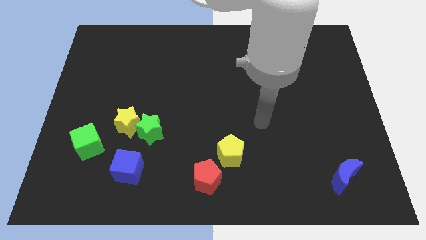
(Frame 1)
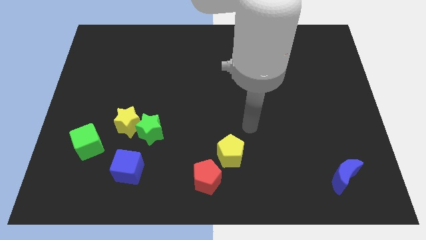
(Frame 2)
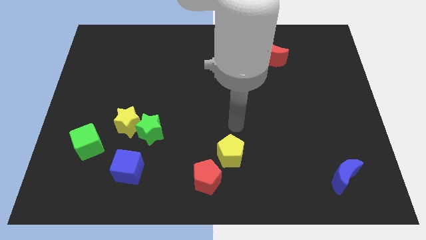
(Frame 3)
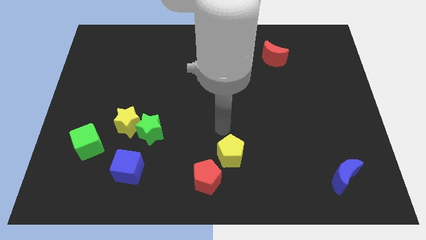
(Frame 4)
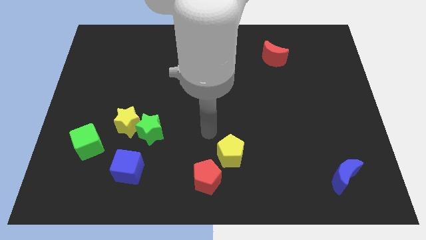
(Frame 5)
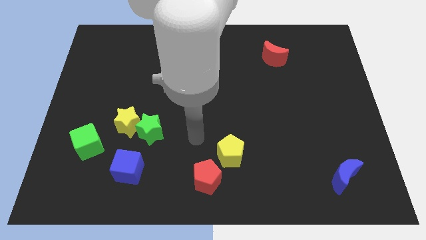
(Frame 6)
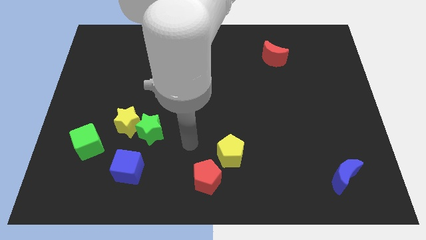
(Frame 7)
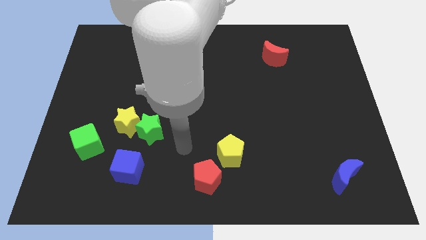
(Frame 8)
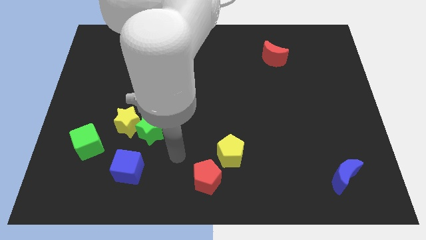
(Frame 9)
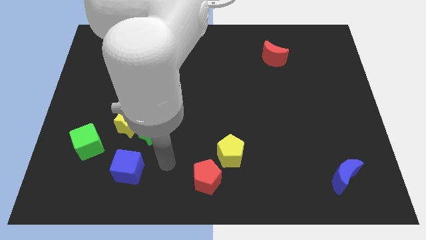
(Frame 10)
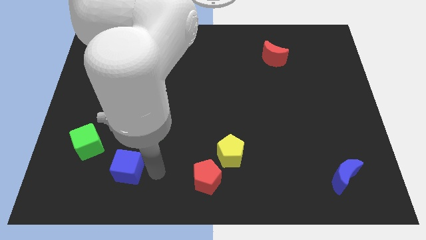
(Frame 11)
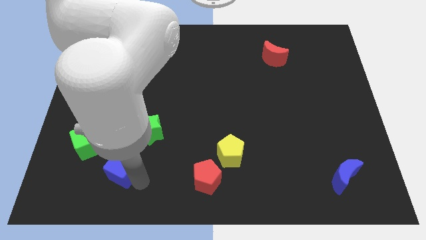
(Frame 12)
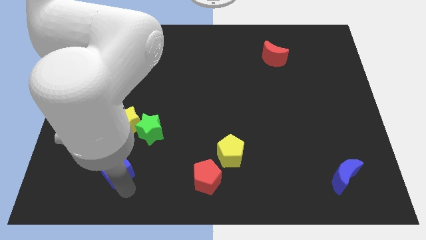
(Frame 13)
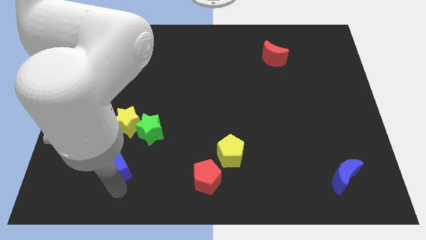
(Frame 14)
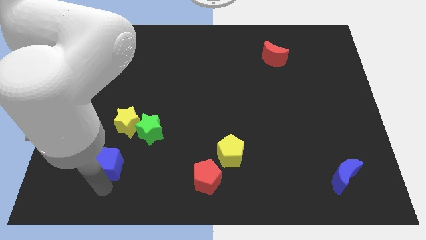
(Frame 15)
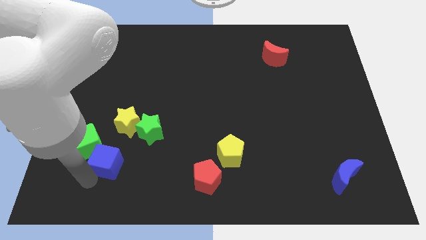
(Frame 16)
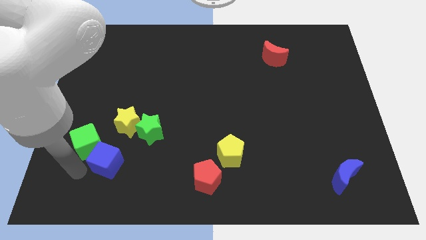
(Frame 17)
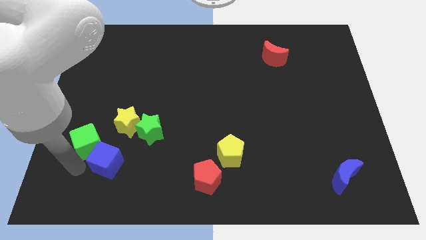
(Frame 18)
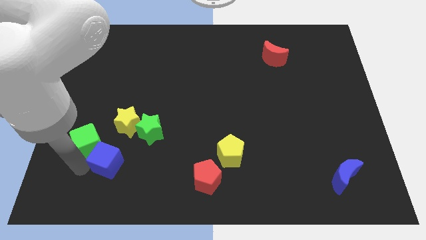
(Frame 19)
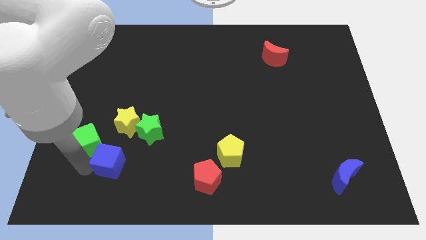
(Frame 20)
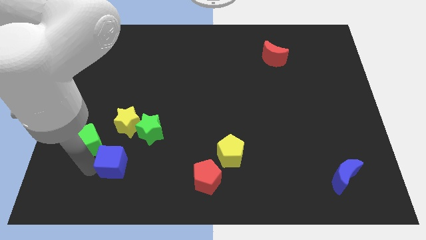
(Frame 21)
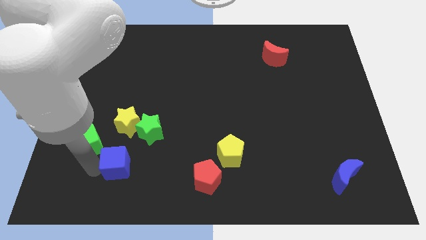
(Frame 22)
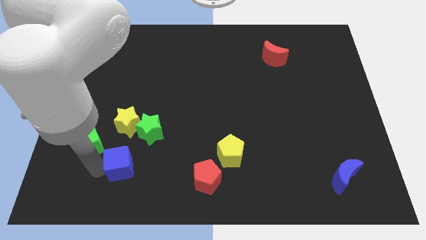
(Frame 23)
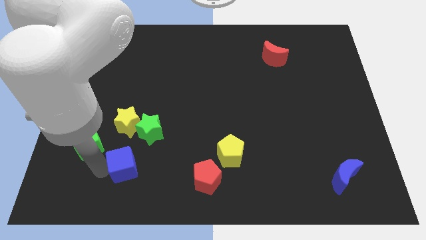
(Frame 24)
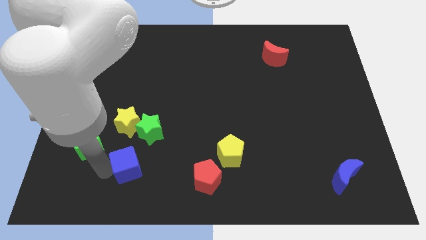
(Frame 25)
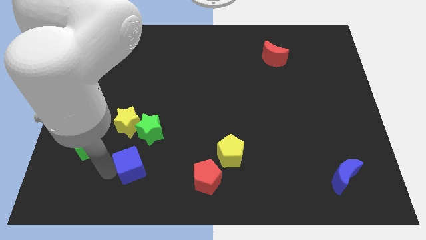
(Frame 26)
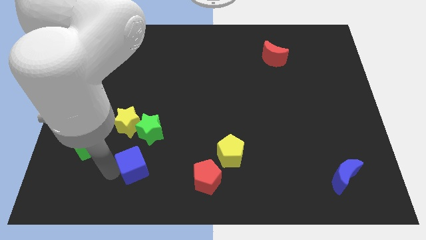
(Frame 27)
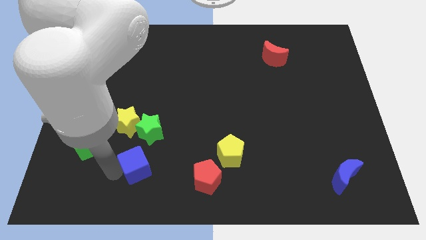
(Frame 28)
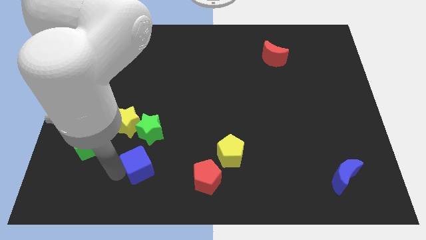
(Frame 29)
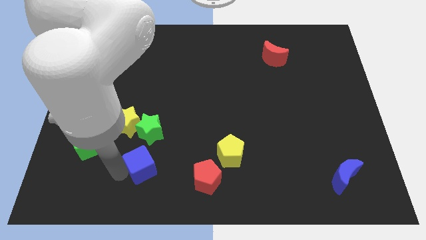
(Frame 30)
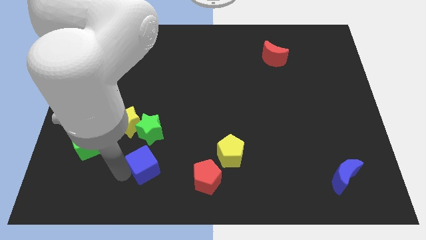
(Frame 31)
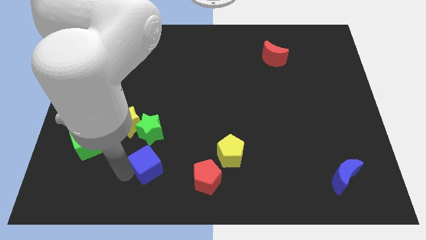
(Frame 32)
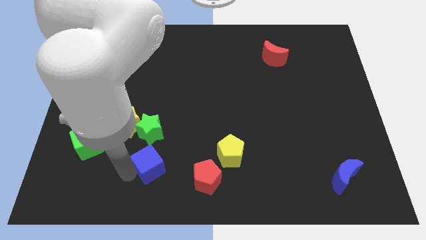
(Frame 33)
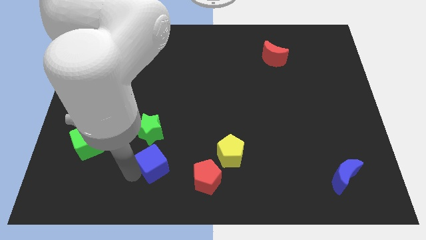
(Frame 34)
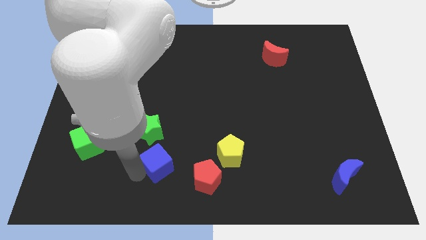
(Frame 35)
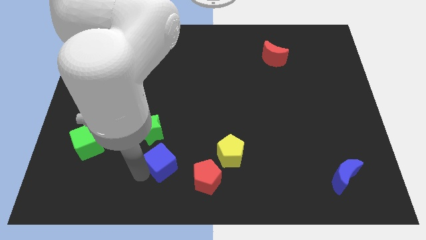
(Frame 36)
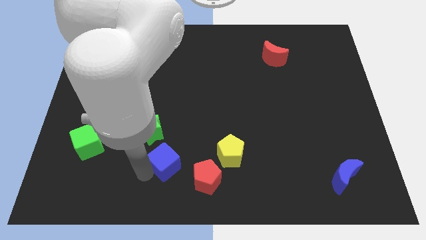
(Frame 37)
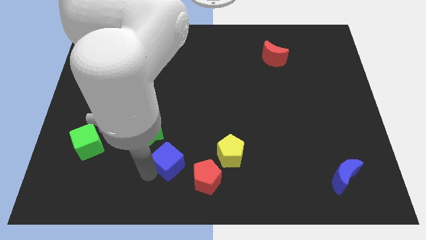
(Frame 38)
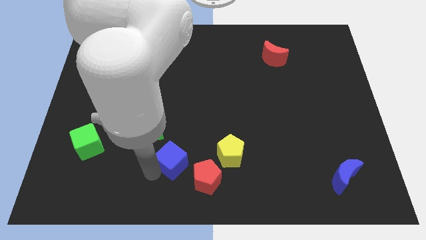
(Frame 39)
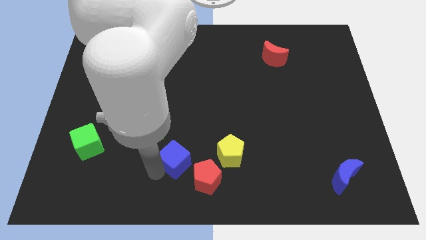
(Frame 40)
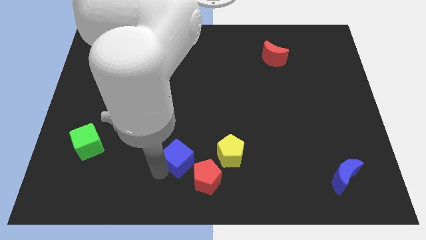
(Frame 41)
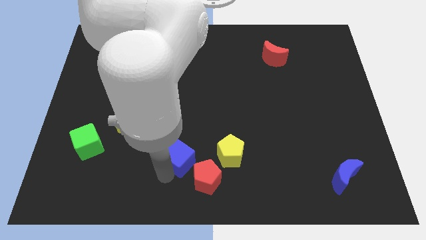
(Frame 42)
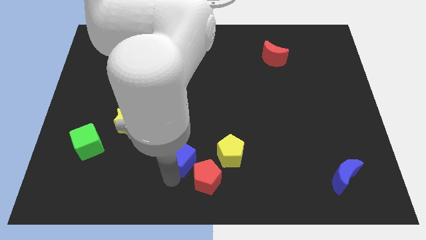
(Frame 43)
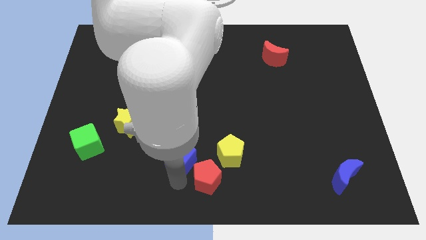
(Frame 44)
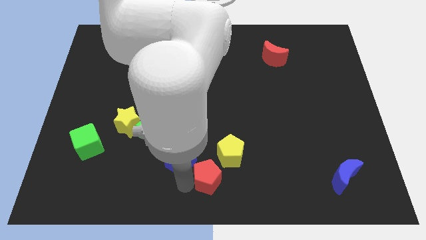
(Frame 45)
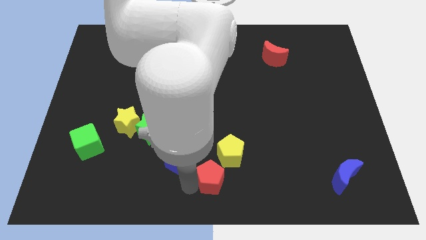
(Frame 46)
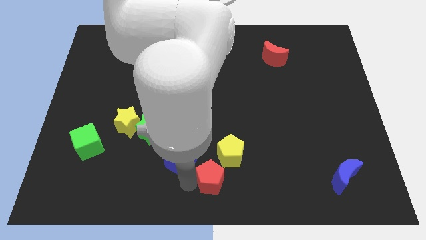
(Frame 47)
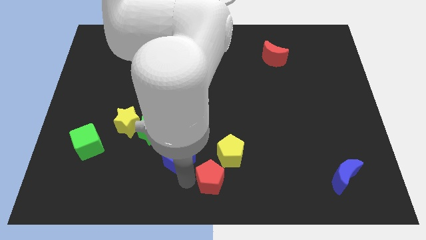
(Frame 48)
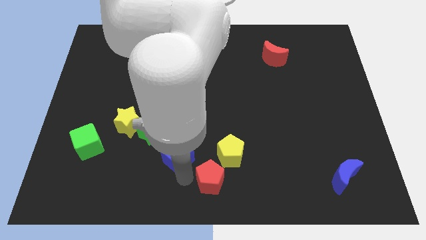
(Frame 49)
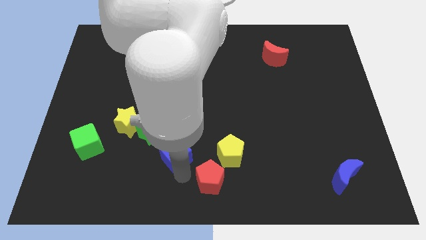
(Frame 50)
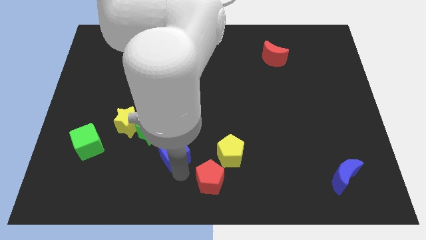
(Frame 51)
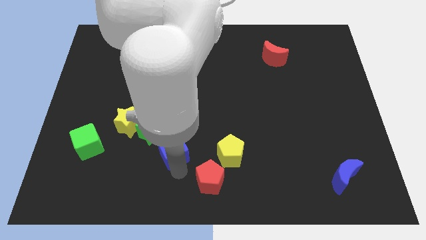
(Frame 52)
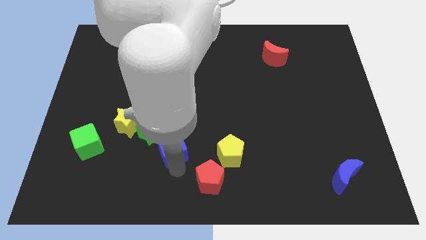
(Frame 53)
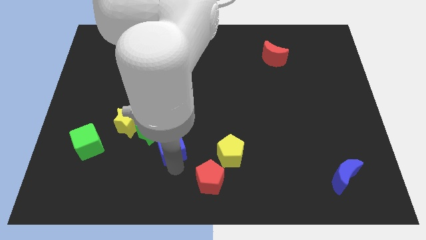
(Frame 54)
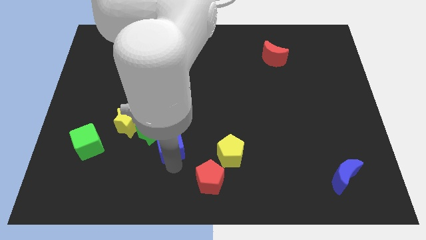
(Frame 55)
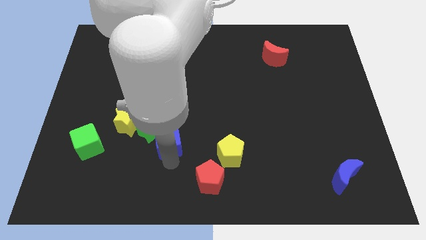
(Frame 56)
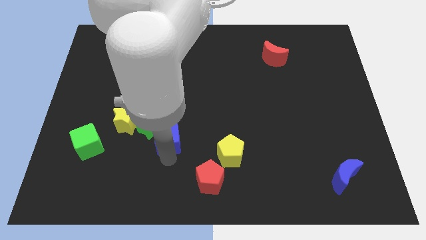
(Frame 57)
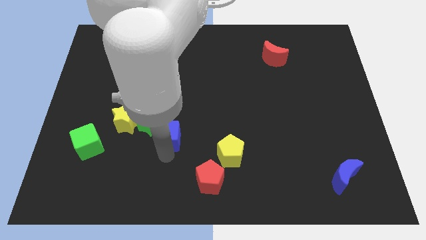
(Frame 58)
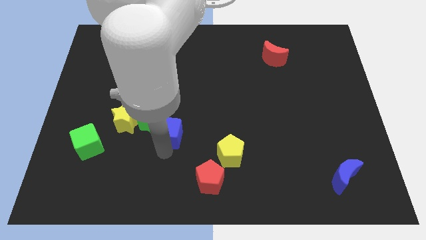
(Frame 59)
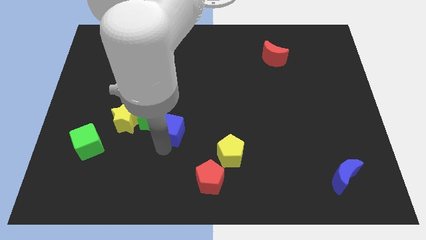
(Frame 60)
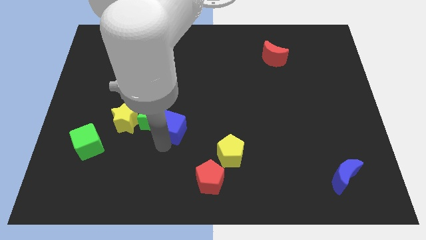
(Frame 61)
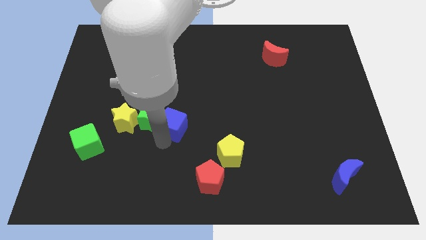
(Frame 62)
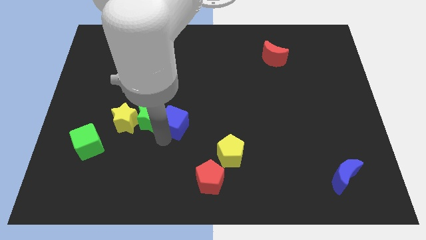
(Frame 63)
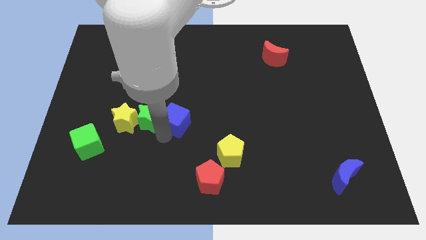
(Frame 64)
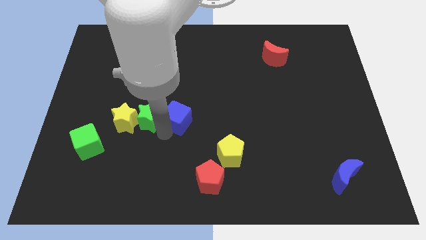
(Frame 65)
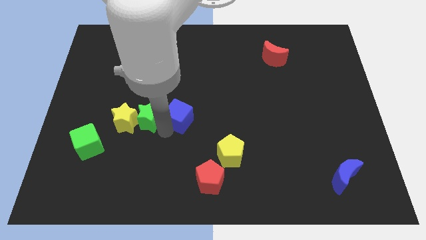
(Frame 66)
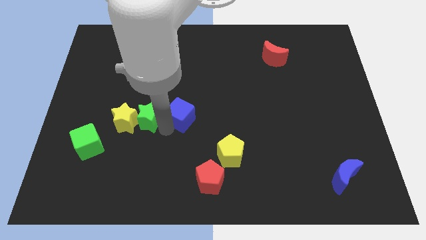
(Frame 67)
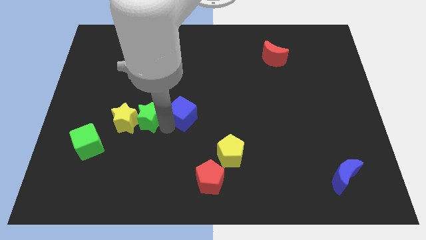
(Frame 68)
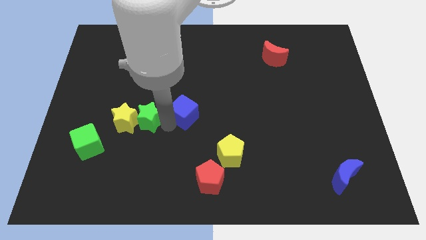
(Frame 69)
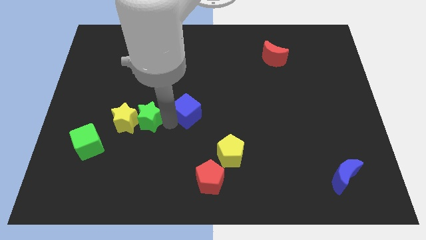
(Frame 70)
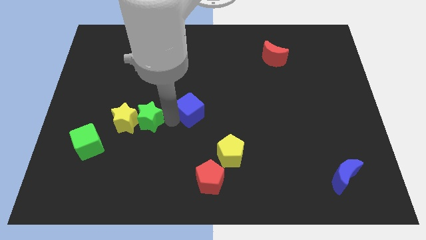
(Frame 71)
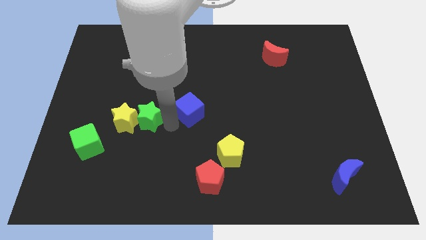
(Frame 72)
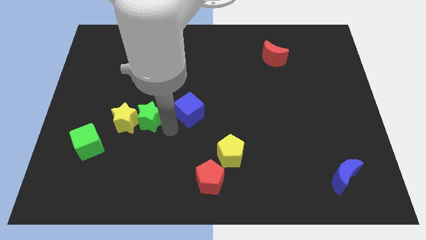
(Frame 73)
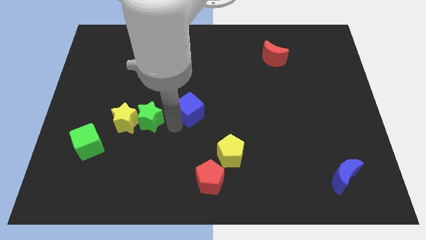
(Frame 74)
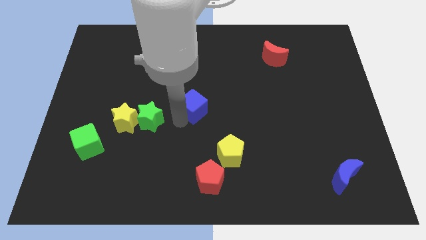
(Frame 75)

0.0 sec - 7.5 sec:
move the blue cube diagonally upwards and to the right

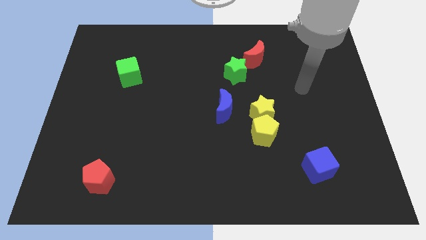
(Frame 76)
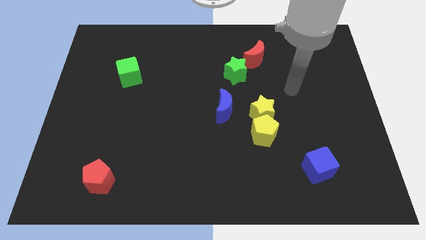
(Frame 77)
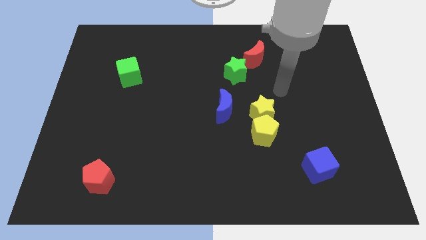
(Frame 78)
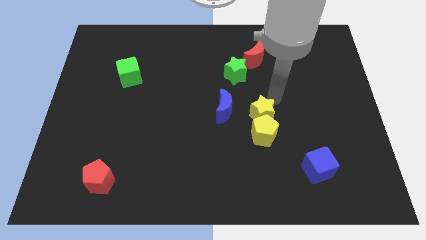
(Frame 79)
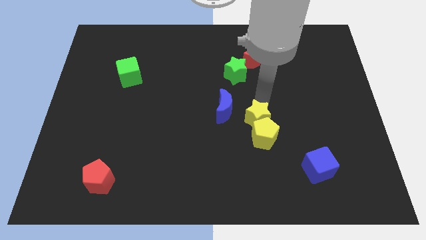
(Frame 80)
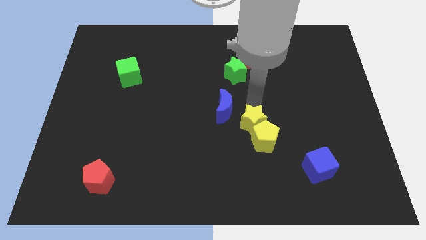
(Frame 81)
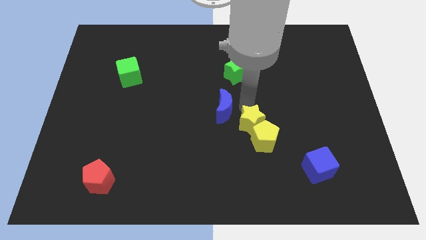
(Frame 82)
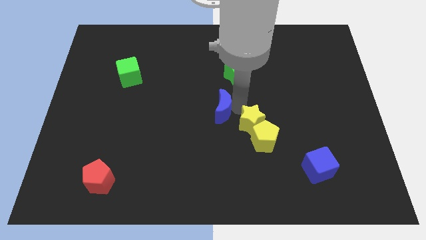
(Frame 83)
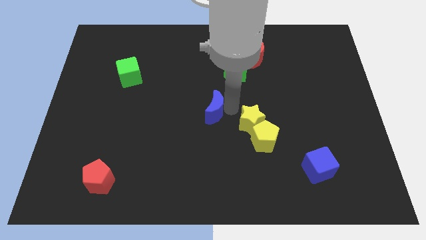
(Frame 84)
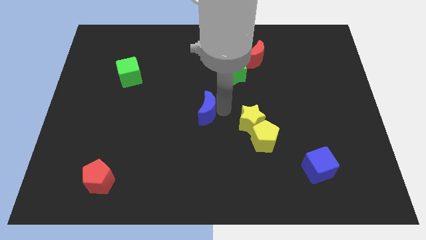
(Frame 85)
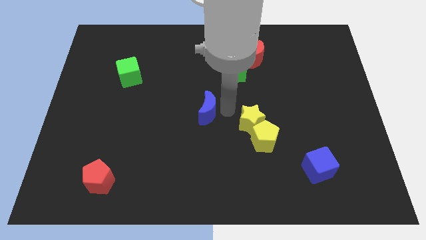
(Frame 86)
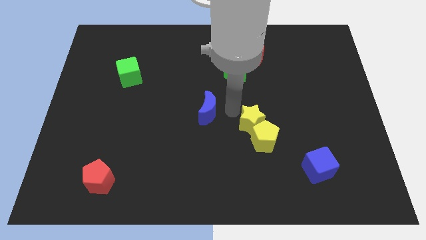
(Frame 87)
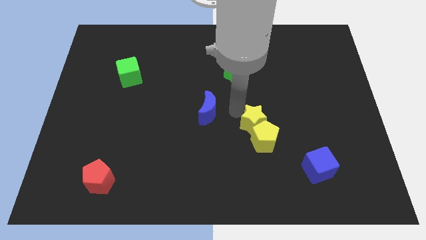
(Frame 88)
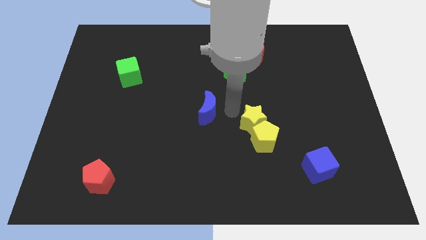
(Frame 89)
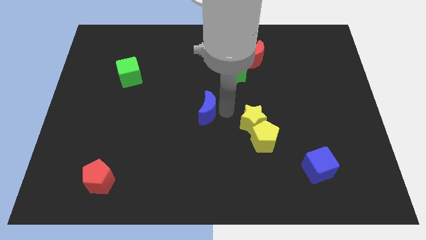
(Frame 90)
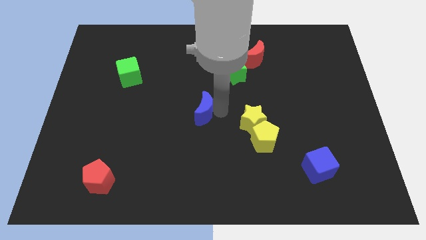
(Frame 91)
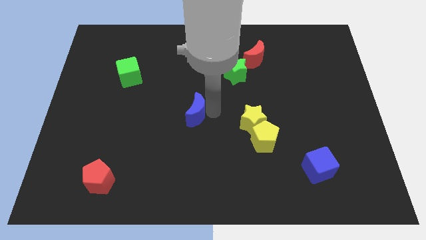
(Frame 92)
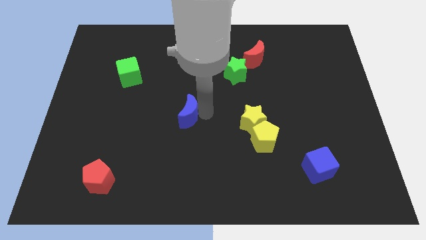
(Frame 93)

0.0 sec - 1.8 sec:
slide the blue moon left a little
